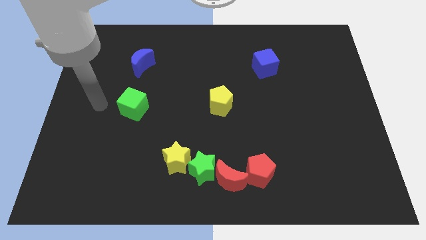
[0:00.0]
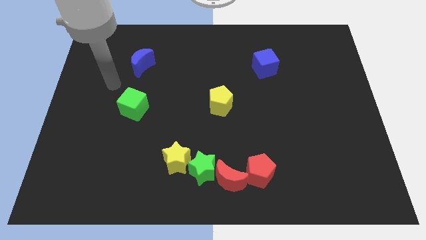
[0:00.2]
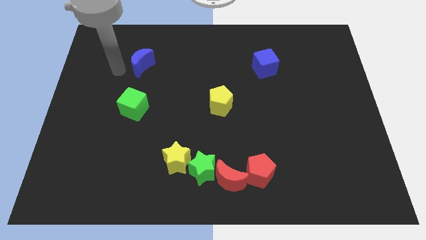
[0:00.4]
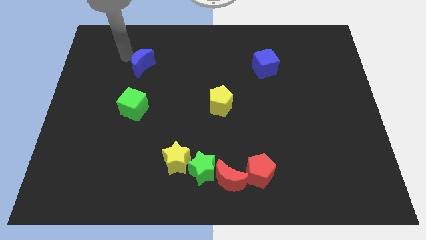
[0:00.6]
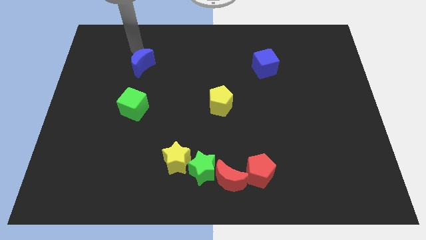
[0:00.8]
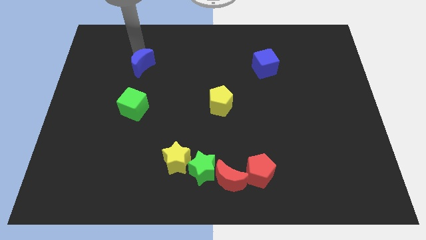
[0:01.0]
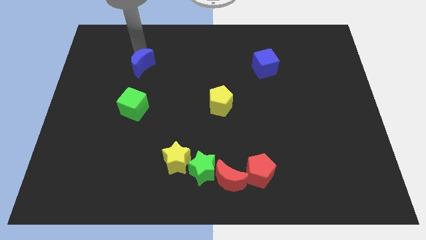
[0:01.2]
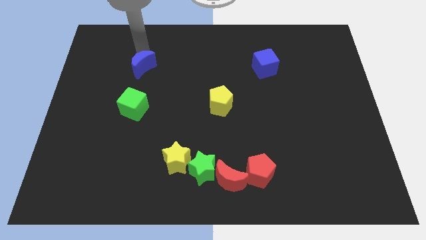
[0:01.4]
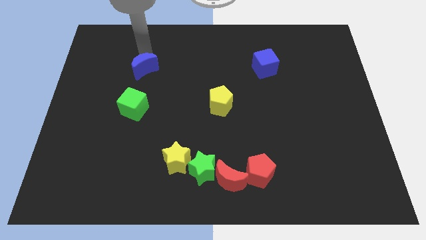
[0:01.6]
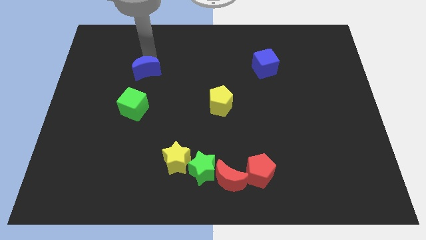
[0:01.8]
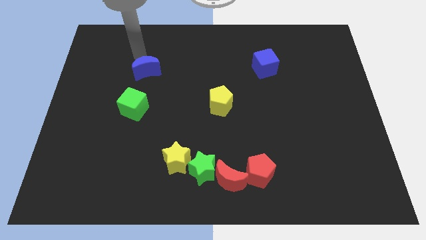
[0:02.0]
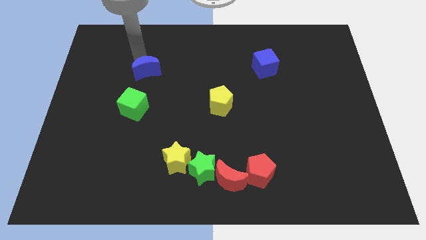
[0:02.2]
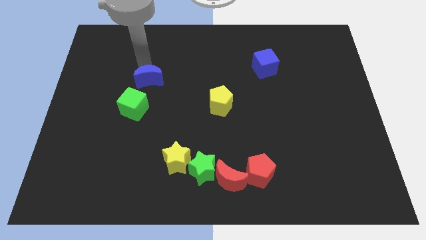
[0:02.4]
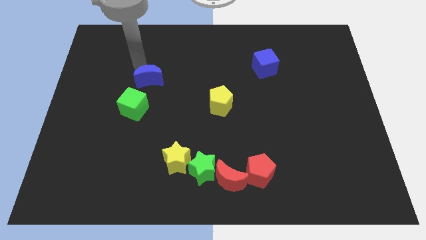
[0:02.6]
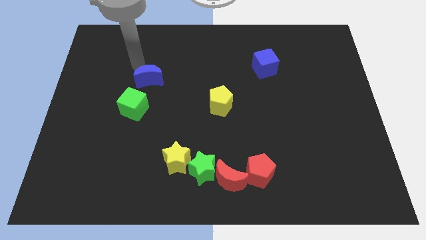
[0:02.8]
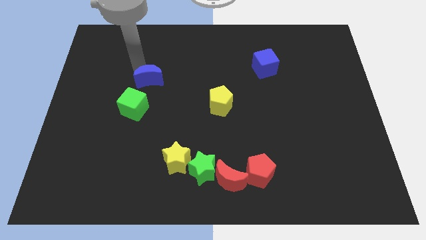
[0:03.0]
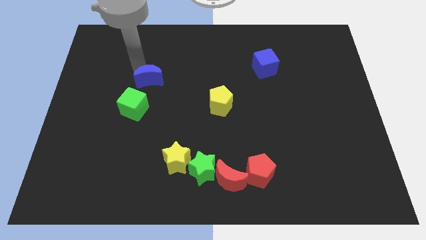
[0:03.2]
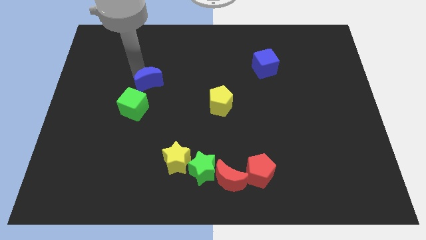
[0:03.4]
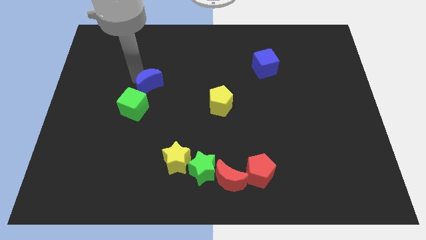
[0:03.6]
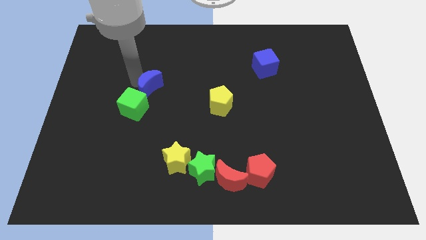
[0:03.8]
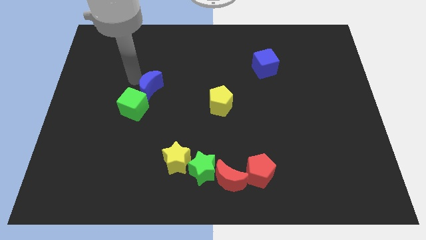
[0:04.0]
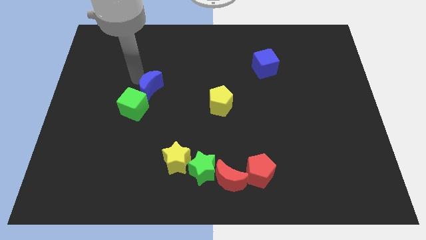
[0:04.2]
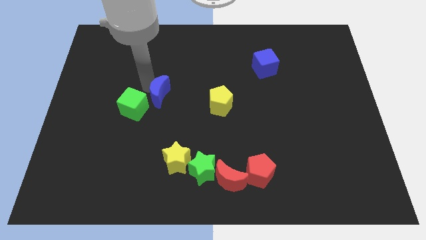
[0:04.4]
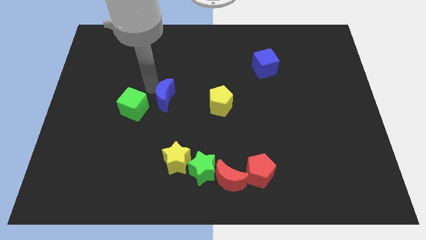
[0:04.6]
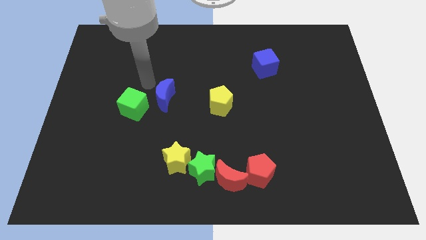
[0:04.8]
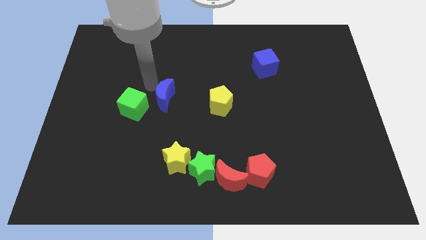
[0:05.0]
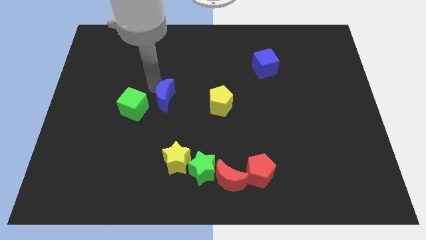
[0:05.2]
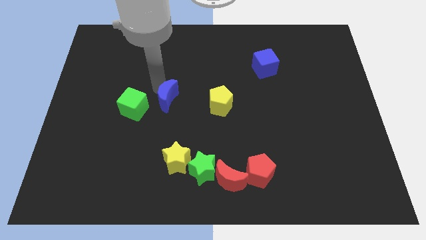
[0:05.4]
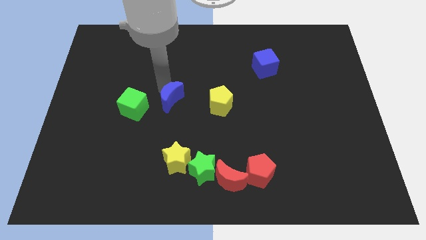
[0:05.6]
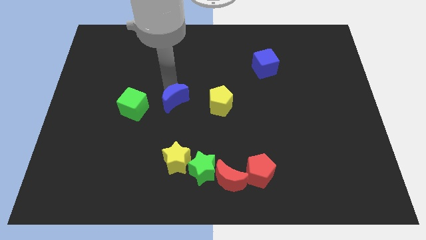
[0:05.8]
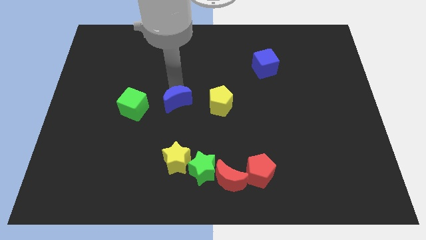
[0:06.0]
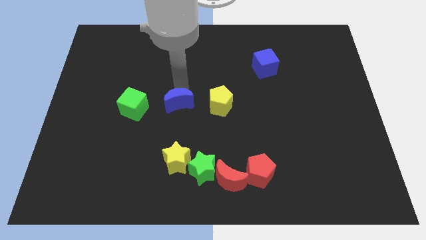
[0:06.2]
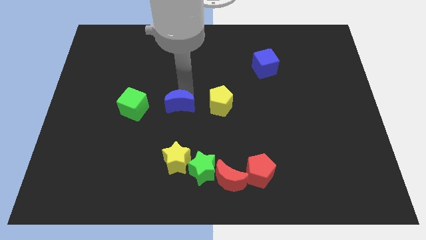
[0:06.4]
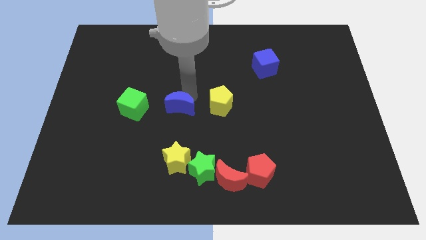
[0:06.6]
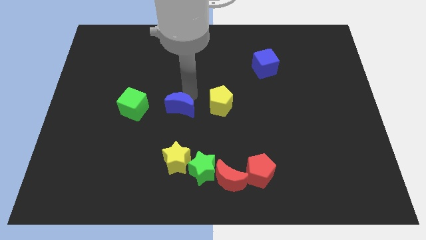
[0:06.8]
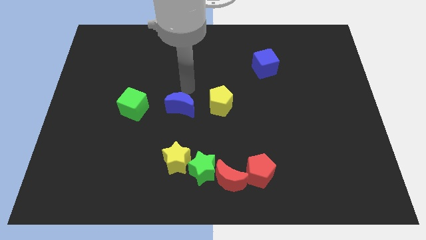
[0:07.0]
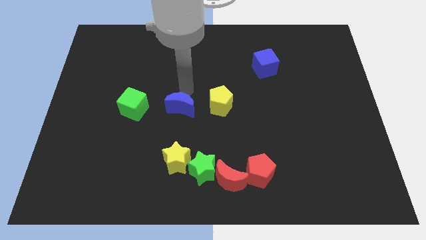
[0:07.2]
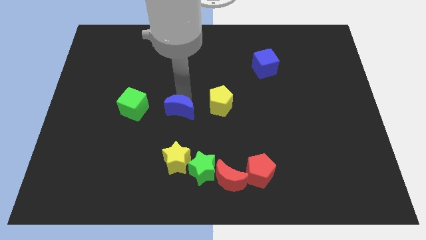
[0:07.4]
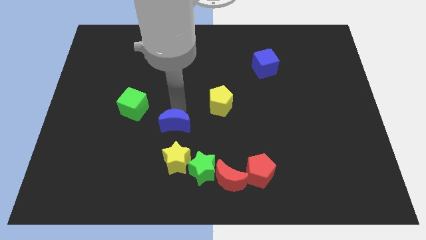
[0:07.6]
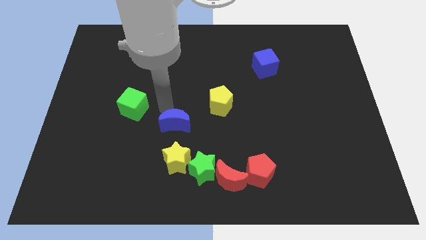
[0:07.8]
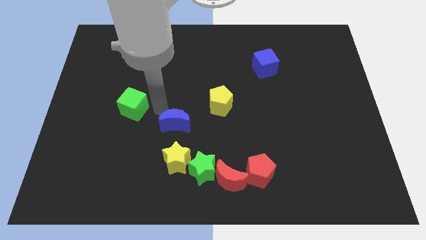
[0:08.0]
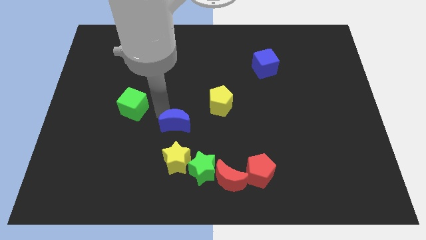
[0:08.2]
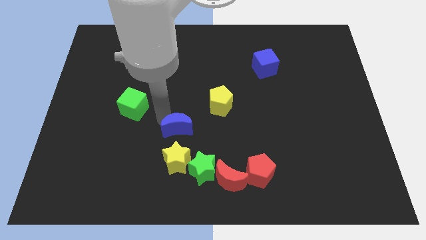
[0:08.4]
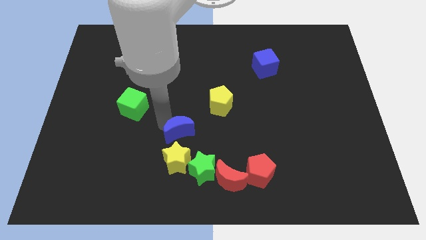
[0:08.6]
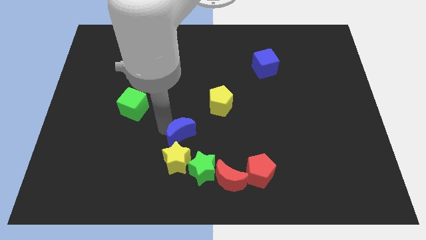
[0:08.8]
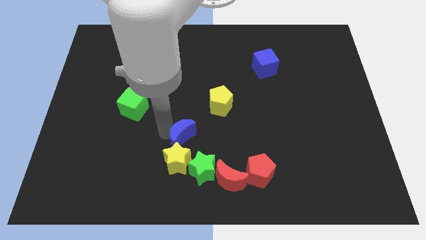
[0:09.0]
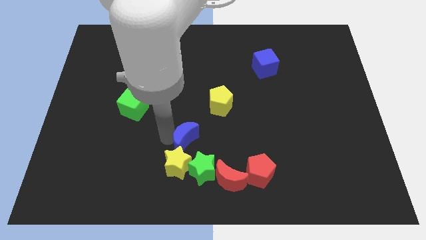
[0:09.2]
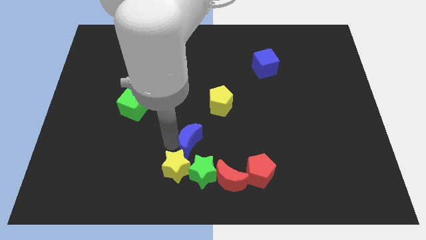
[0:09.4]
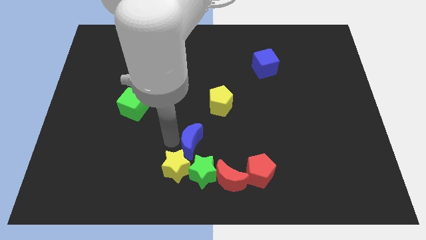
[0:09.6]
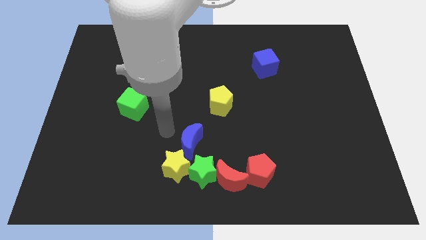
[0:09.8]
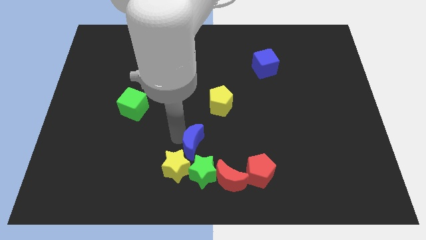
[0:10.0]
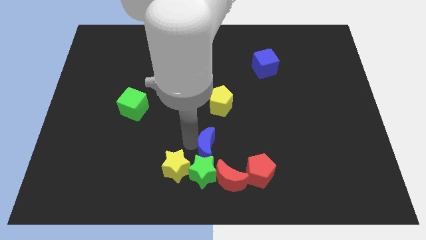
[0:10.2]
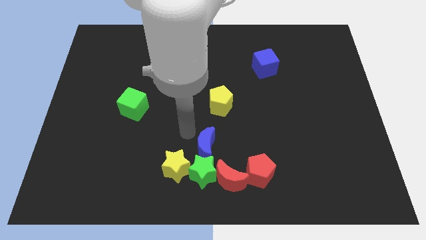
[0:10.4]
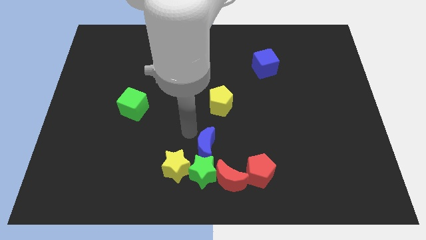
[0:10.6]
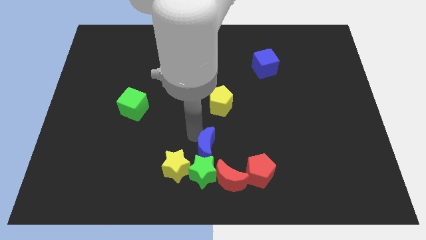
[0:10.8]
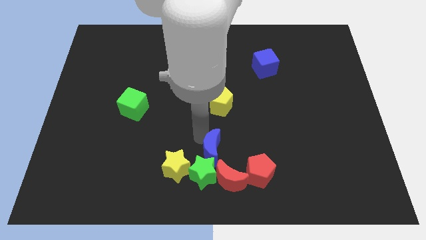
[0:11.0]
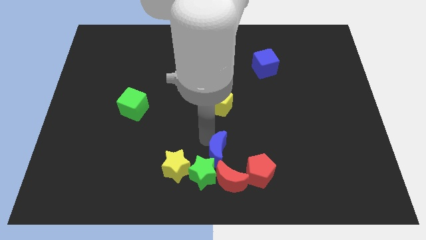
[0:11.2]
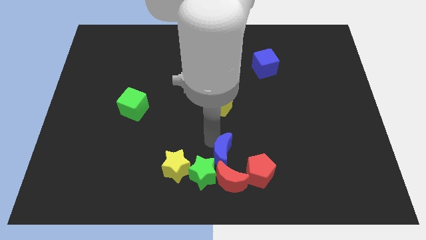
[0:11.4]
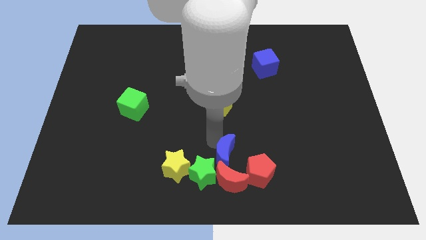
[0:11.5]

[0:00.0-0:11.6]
slide the blue moon next to the red moon
